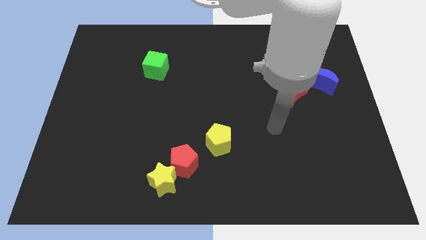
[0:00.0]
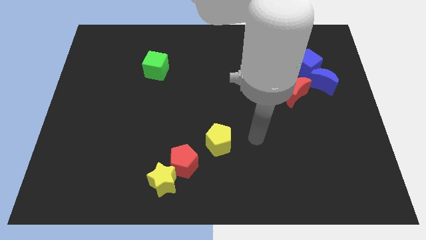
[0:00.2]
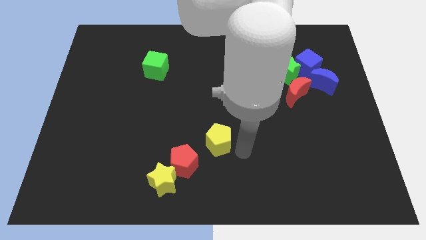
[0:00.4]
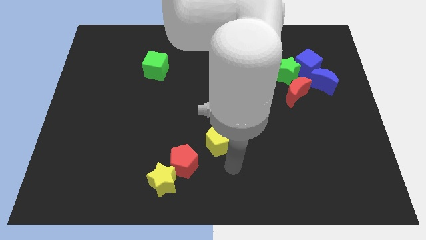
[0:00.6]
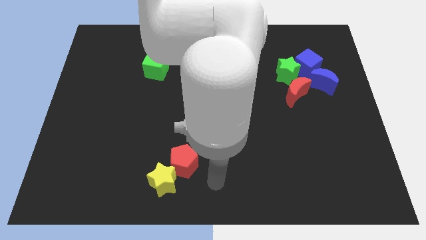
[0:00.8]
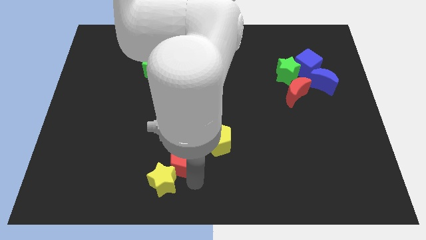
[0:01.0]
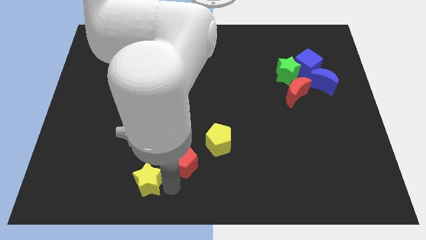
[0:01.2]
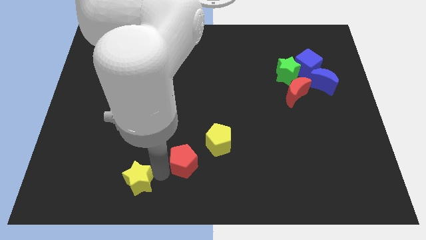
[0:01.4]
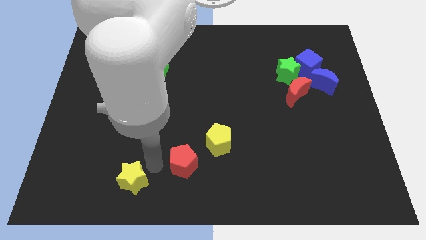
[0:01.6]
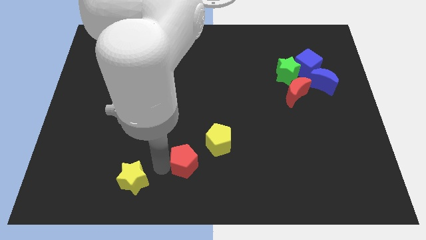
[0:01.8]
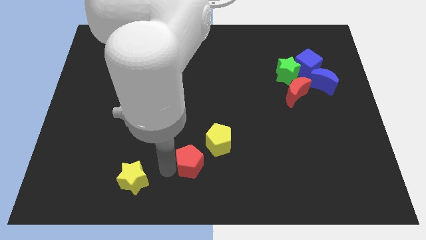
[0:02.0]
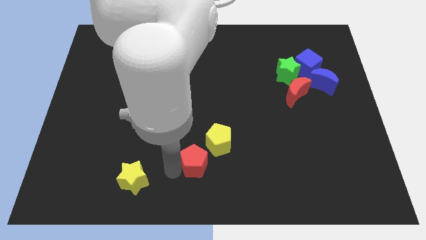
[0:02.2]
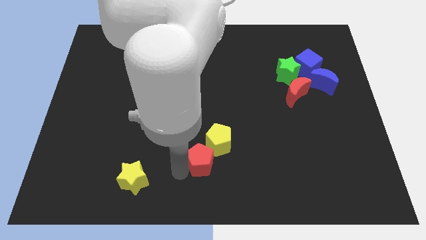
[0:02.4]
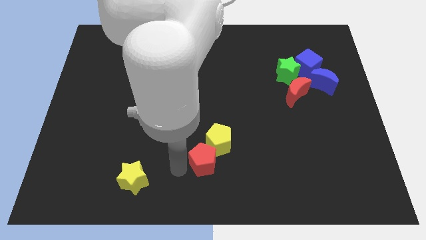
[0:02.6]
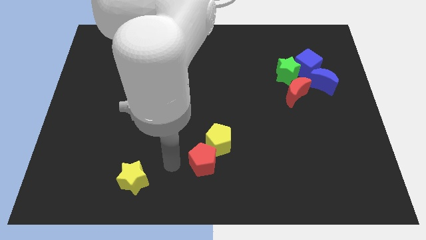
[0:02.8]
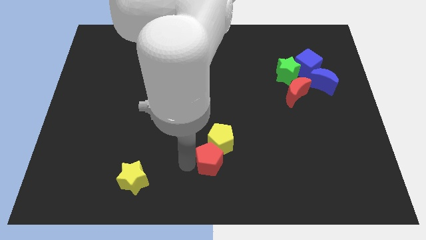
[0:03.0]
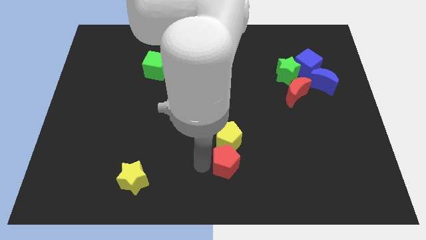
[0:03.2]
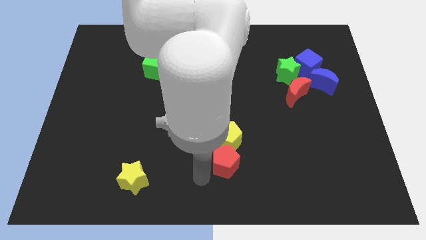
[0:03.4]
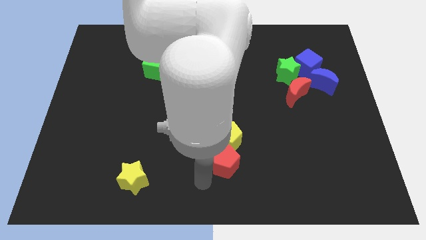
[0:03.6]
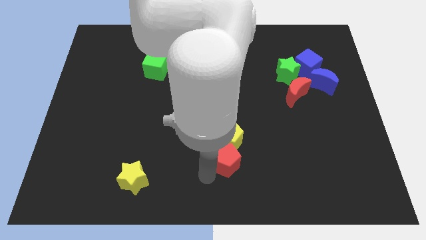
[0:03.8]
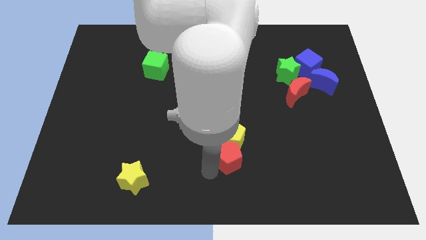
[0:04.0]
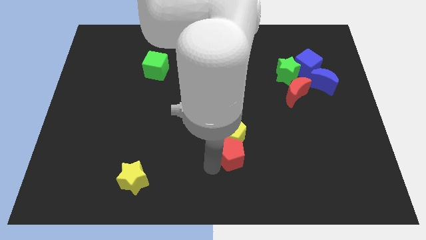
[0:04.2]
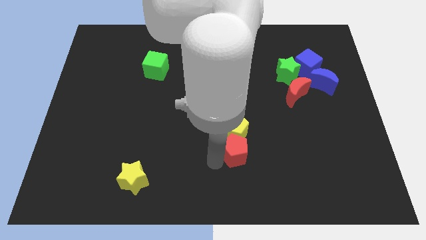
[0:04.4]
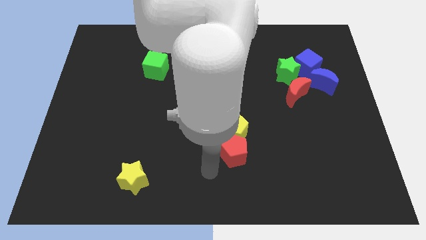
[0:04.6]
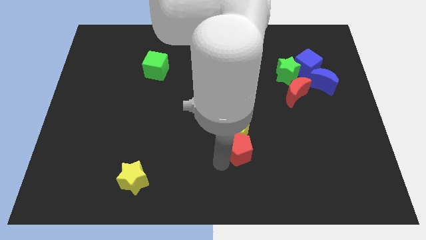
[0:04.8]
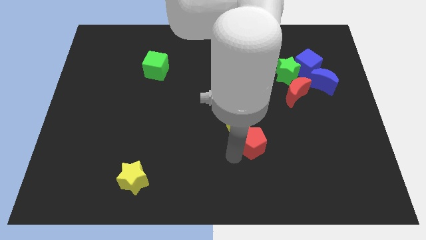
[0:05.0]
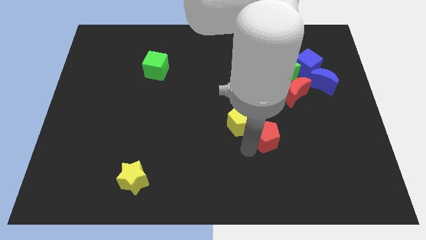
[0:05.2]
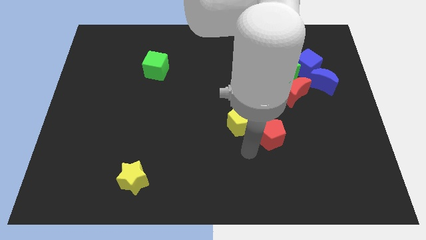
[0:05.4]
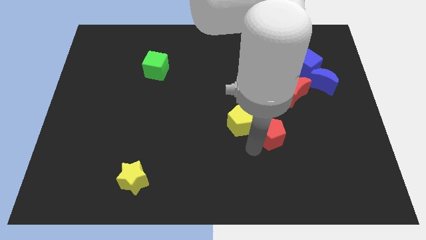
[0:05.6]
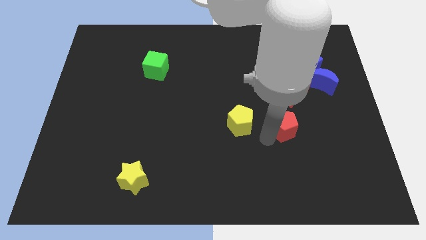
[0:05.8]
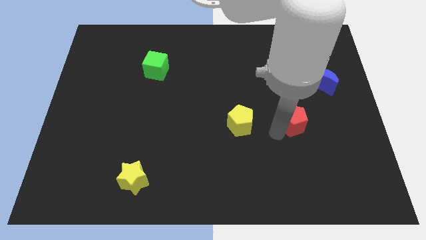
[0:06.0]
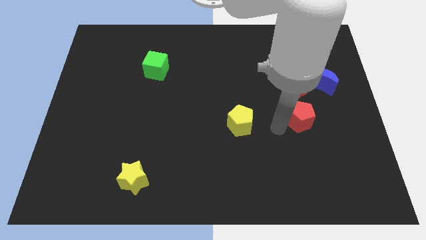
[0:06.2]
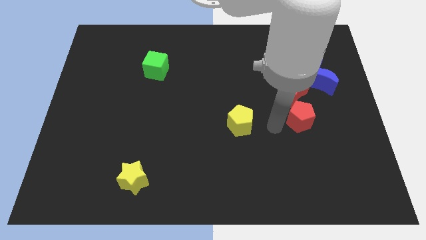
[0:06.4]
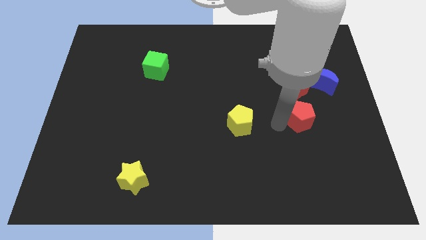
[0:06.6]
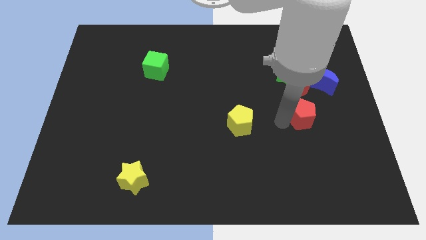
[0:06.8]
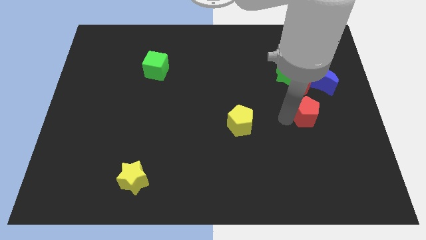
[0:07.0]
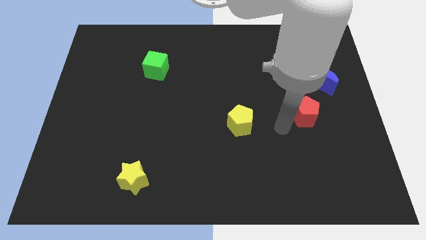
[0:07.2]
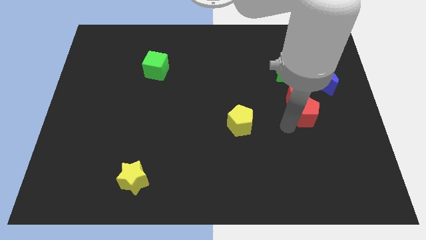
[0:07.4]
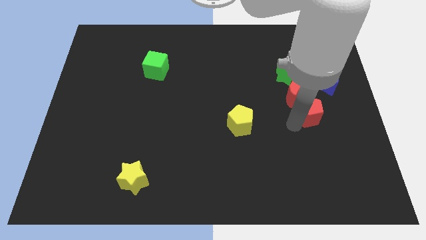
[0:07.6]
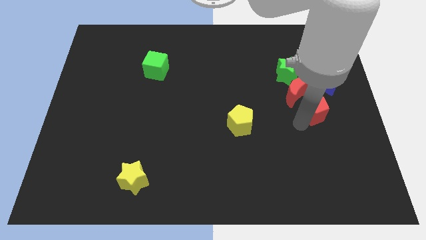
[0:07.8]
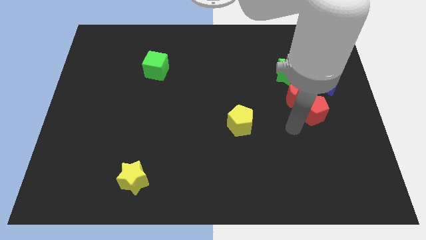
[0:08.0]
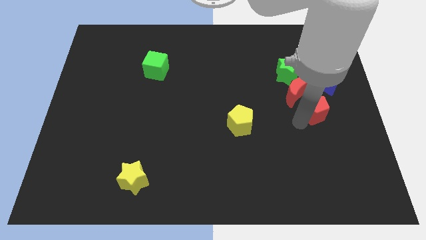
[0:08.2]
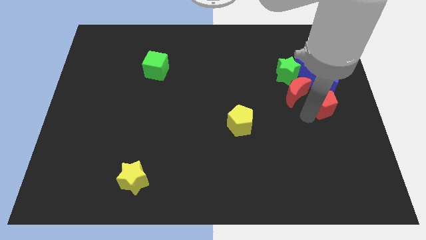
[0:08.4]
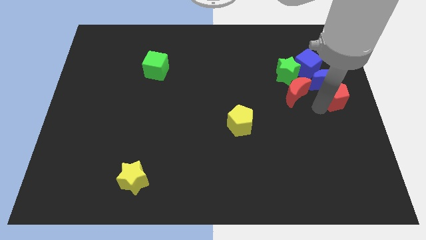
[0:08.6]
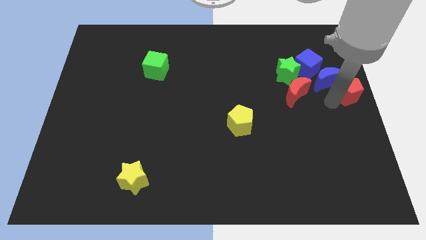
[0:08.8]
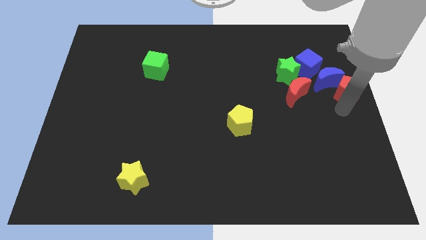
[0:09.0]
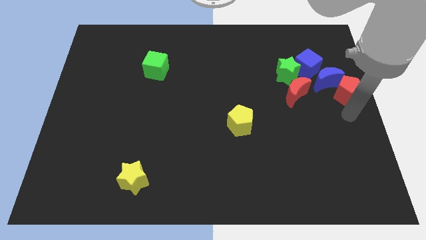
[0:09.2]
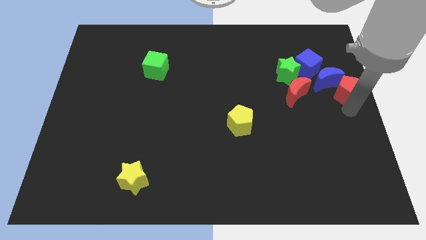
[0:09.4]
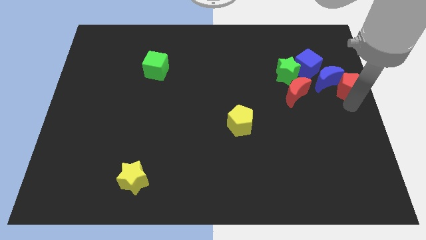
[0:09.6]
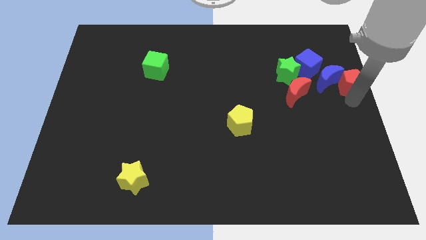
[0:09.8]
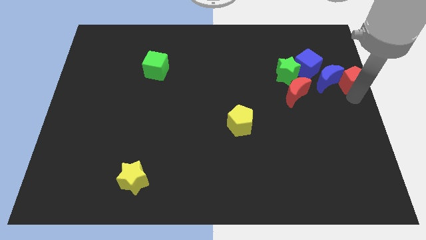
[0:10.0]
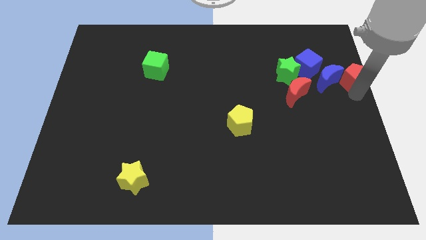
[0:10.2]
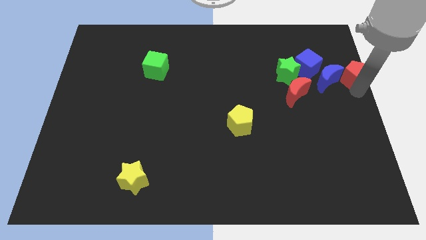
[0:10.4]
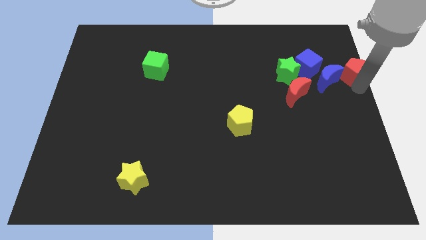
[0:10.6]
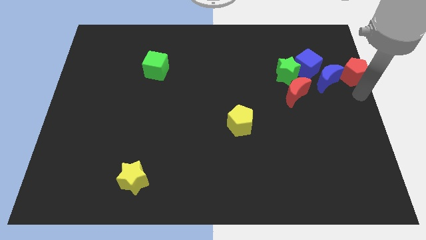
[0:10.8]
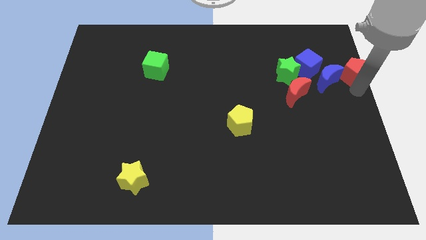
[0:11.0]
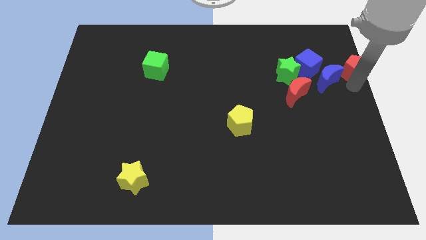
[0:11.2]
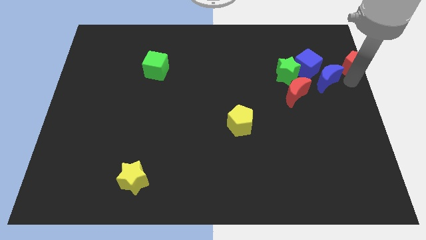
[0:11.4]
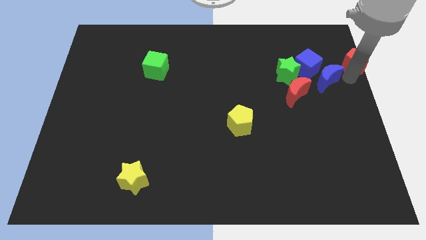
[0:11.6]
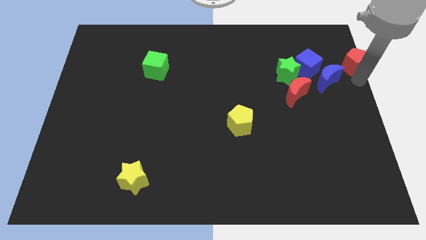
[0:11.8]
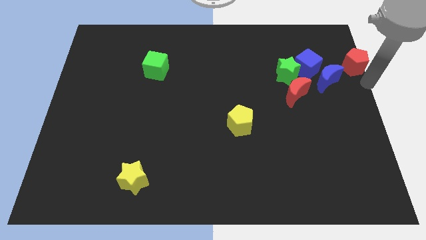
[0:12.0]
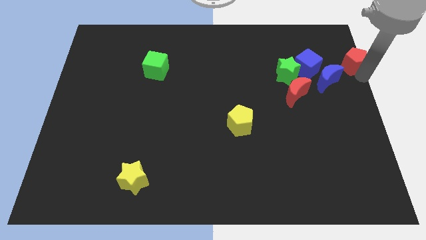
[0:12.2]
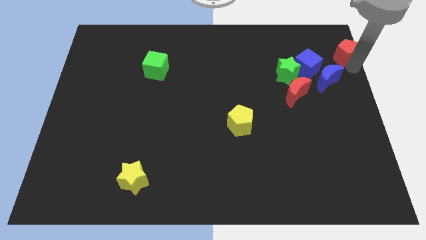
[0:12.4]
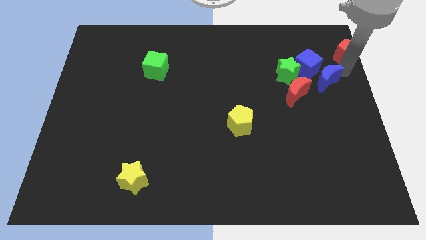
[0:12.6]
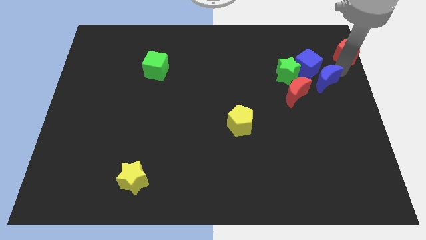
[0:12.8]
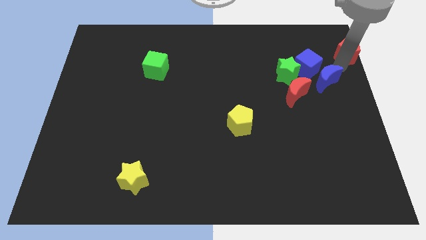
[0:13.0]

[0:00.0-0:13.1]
put the red pentagon to the top right corner
